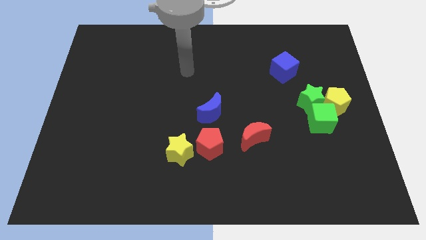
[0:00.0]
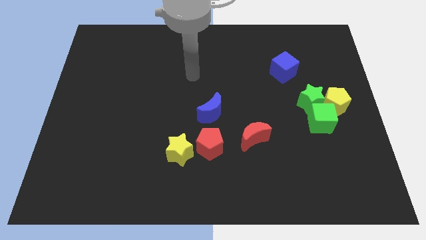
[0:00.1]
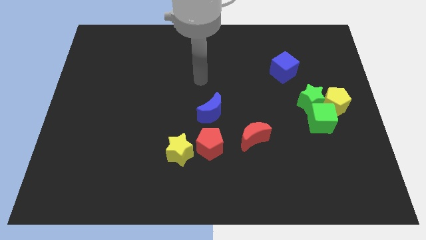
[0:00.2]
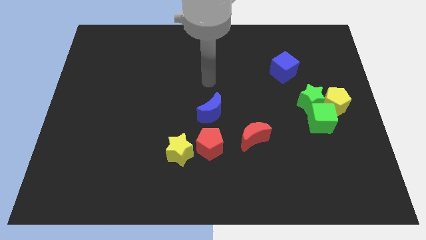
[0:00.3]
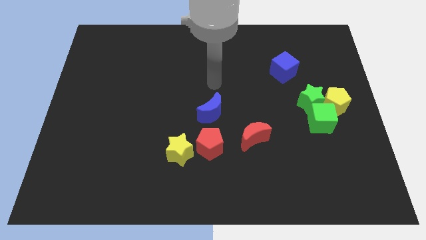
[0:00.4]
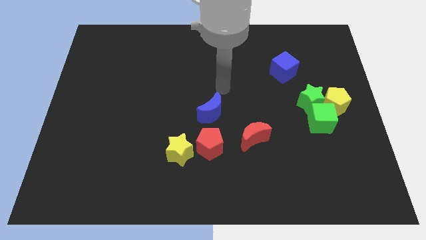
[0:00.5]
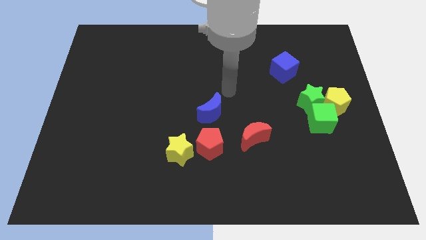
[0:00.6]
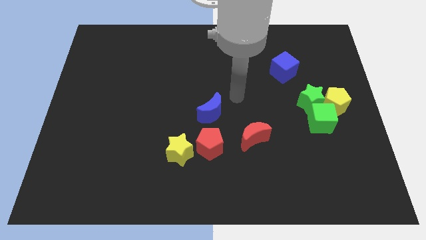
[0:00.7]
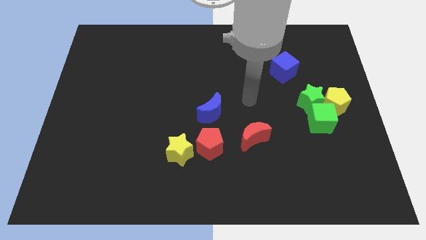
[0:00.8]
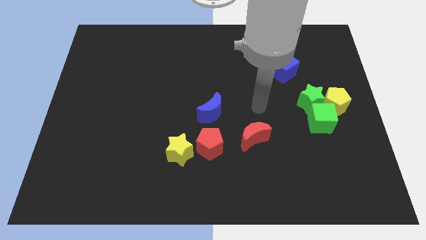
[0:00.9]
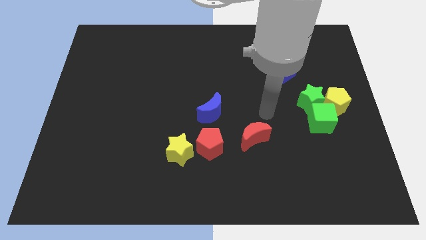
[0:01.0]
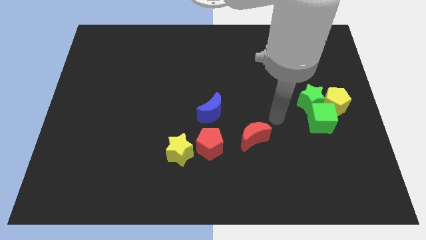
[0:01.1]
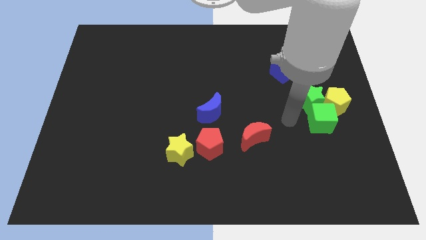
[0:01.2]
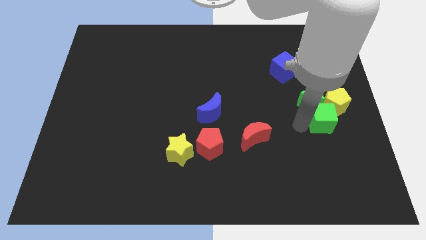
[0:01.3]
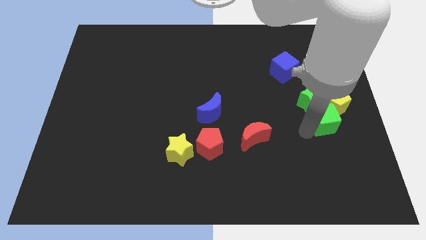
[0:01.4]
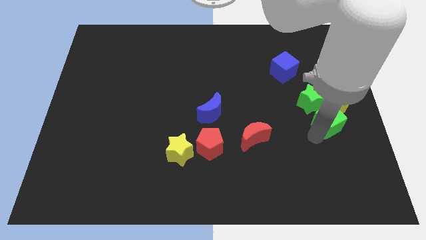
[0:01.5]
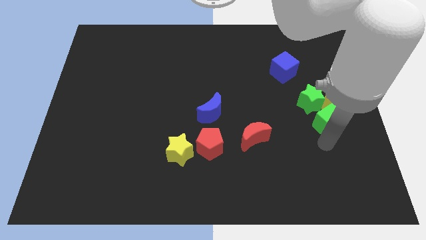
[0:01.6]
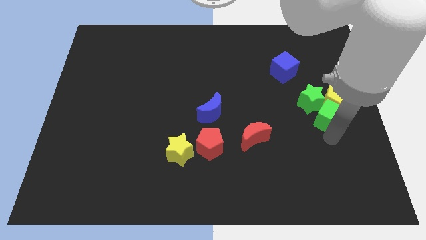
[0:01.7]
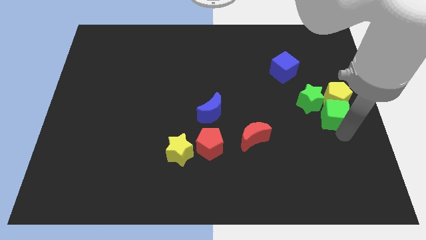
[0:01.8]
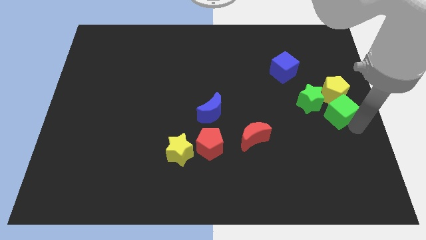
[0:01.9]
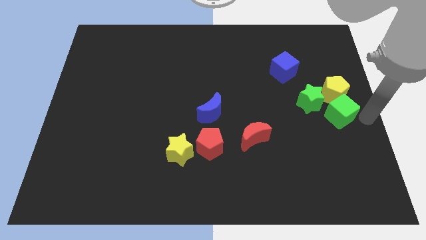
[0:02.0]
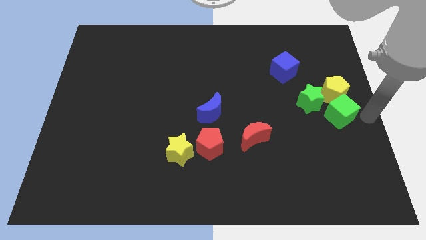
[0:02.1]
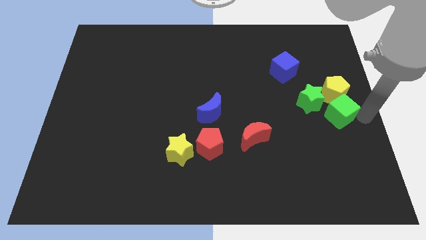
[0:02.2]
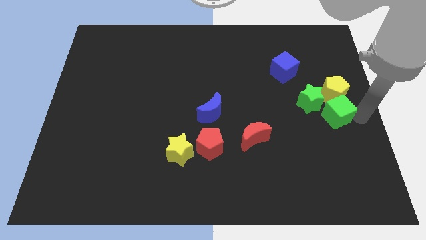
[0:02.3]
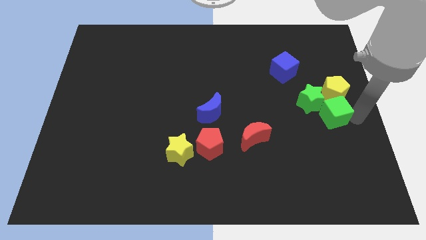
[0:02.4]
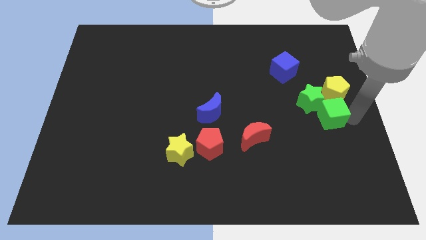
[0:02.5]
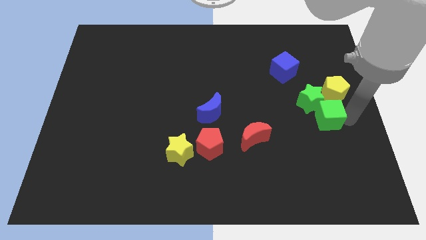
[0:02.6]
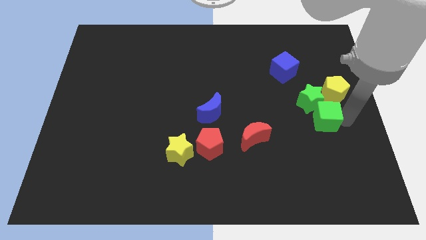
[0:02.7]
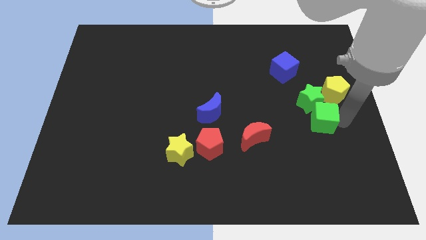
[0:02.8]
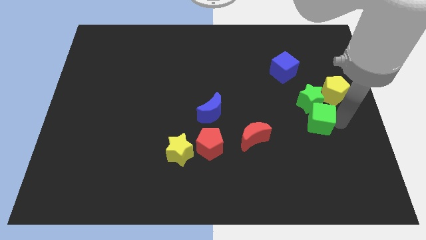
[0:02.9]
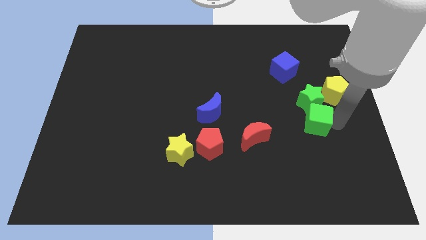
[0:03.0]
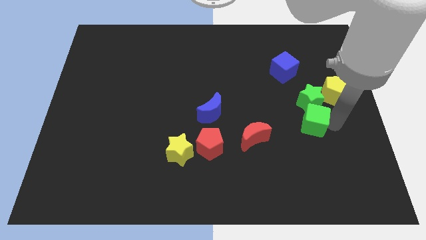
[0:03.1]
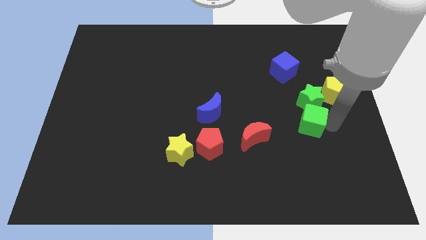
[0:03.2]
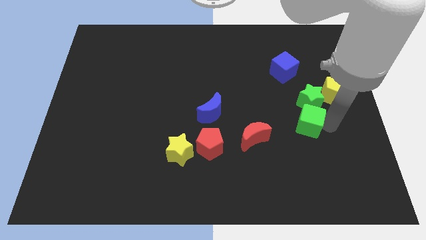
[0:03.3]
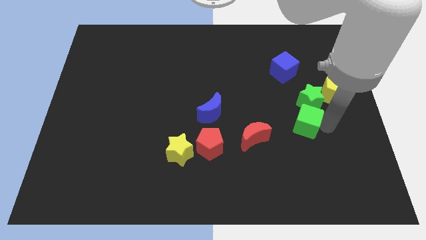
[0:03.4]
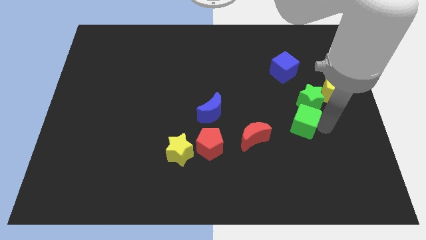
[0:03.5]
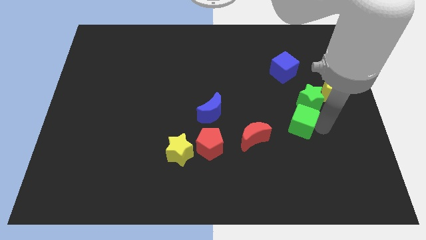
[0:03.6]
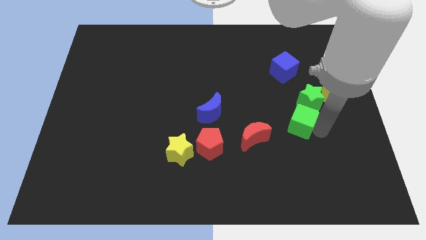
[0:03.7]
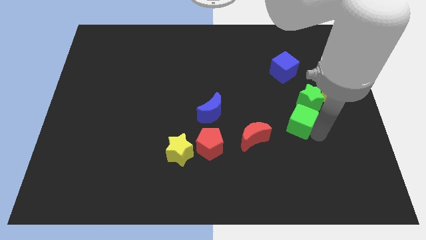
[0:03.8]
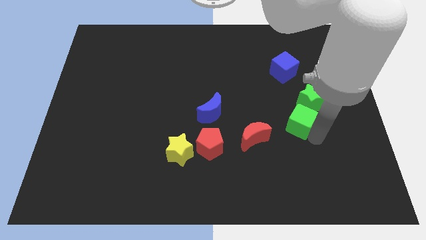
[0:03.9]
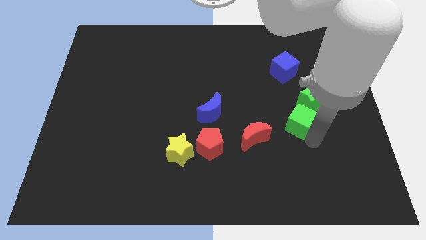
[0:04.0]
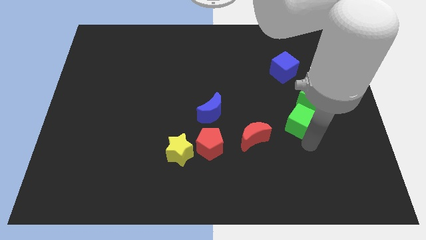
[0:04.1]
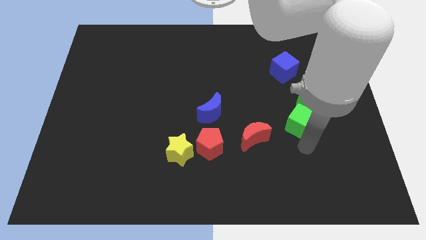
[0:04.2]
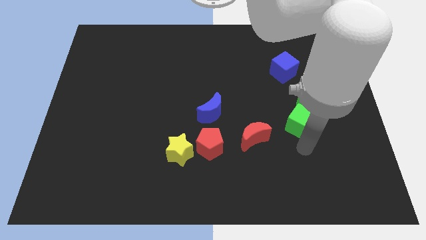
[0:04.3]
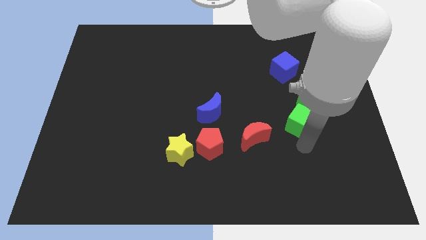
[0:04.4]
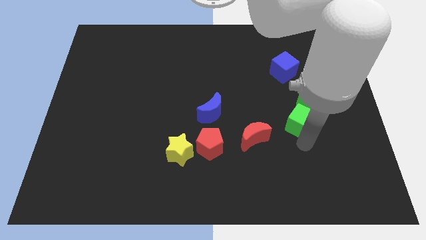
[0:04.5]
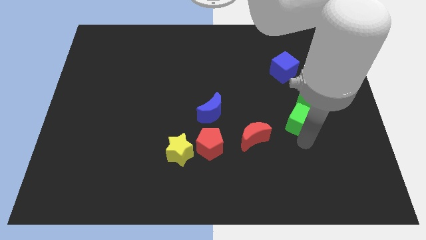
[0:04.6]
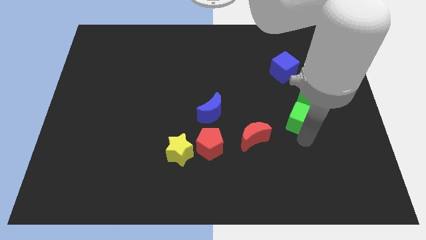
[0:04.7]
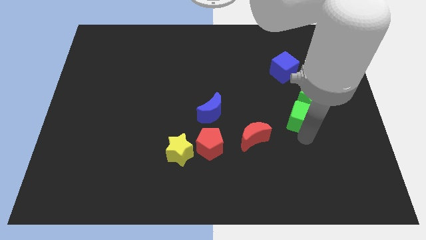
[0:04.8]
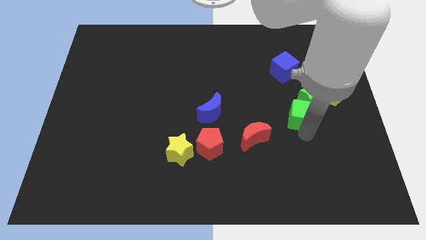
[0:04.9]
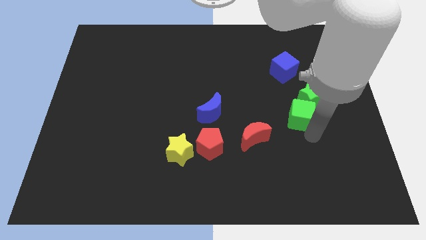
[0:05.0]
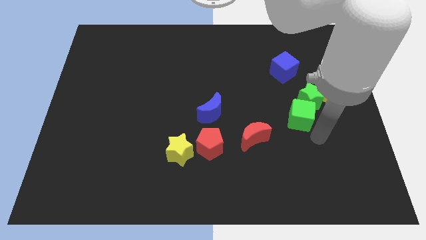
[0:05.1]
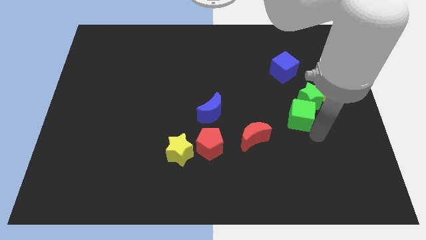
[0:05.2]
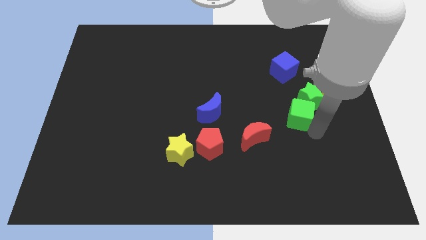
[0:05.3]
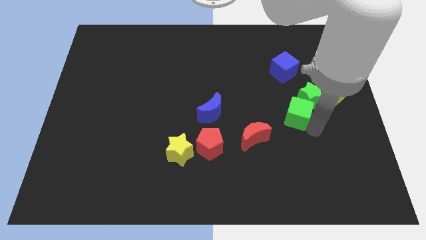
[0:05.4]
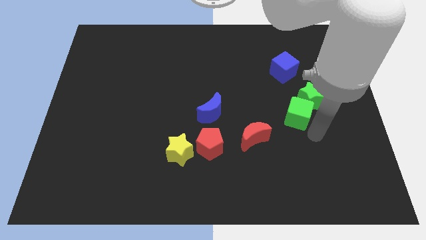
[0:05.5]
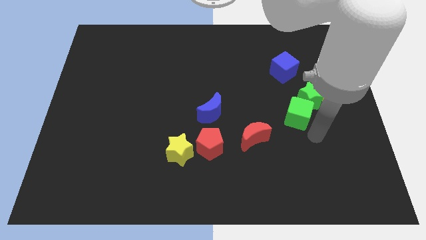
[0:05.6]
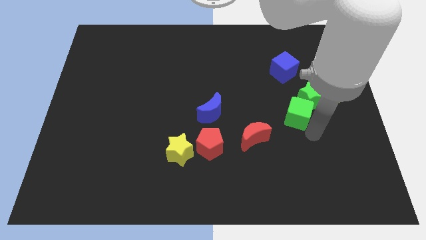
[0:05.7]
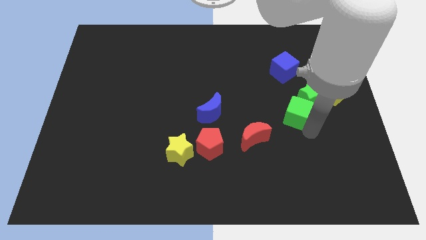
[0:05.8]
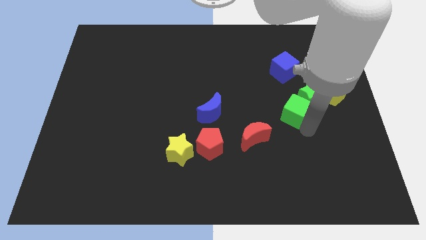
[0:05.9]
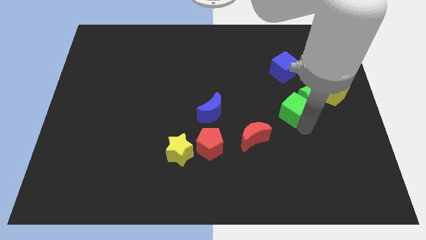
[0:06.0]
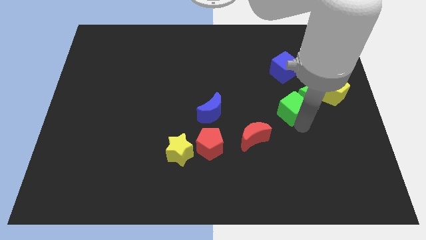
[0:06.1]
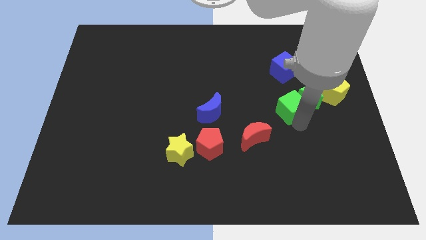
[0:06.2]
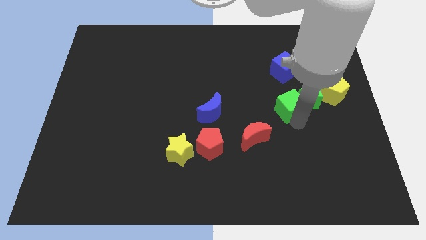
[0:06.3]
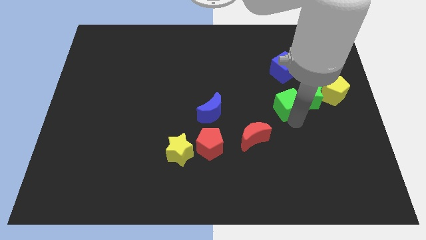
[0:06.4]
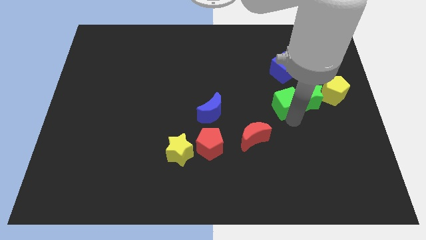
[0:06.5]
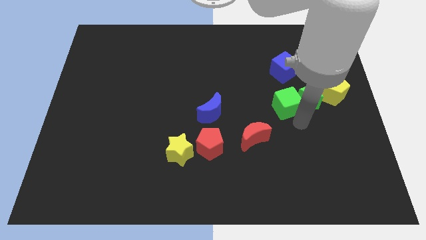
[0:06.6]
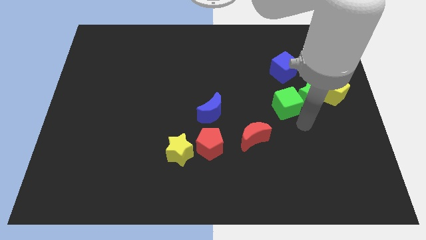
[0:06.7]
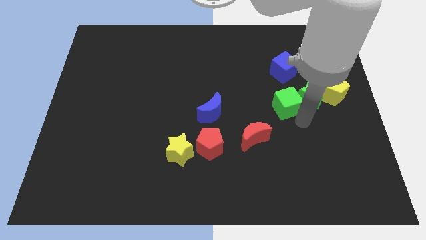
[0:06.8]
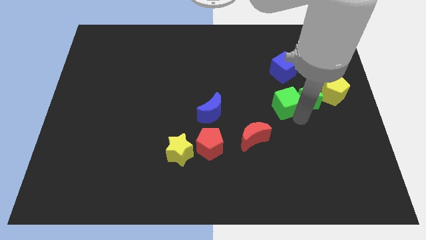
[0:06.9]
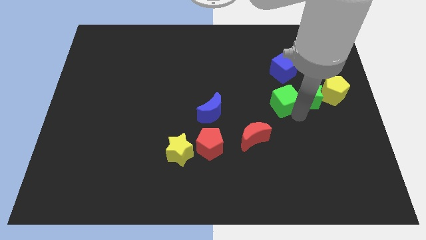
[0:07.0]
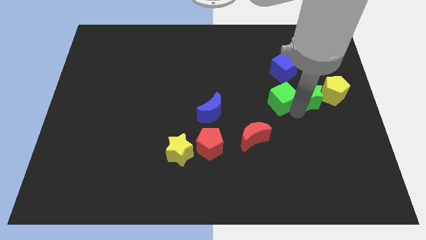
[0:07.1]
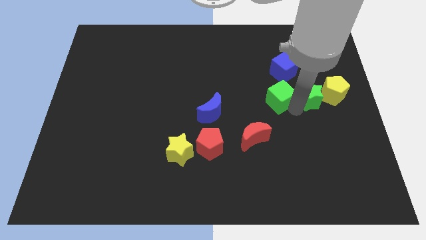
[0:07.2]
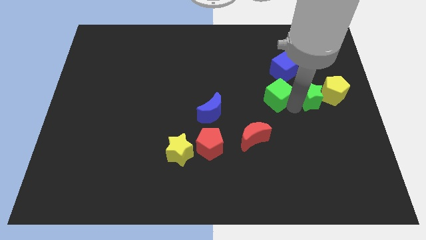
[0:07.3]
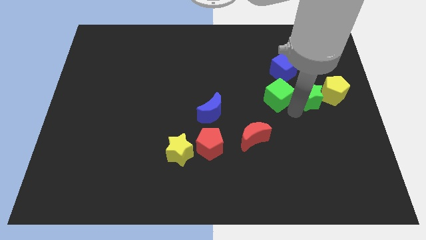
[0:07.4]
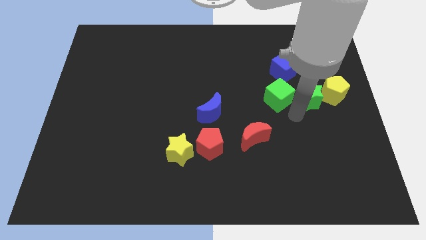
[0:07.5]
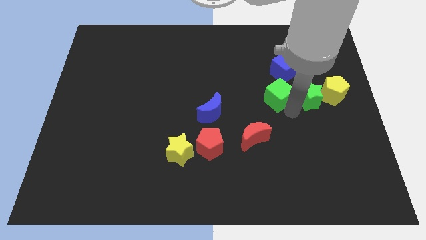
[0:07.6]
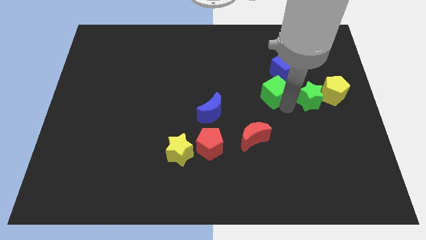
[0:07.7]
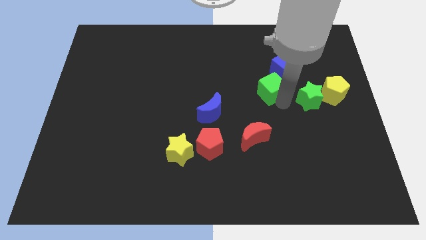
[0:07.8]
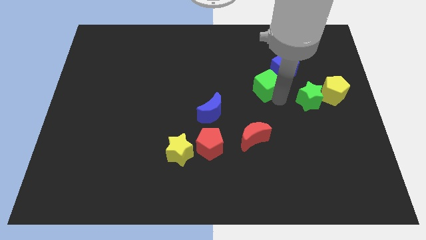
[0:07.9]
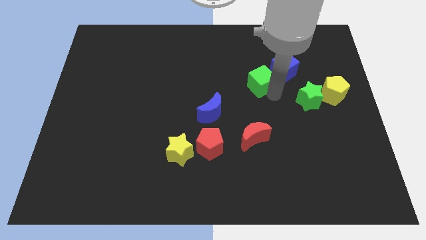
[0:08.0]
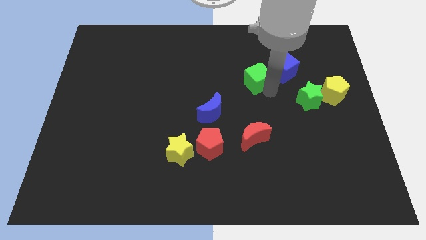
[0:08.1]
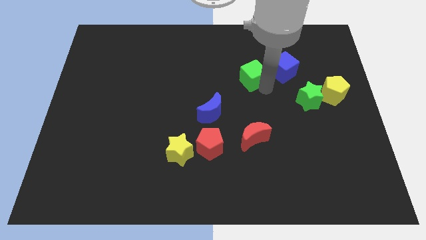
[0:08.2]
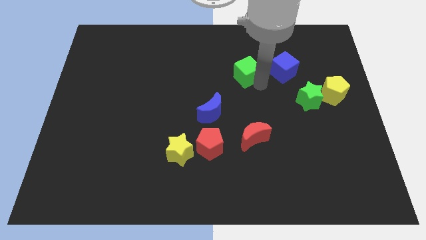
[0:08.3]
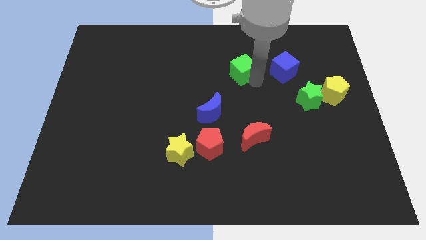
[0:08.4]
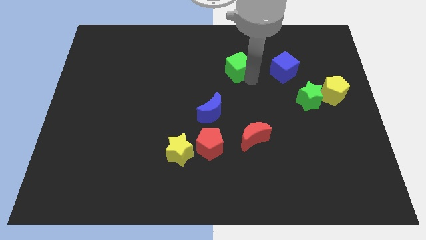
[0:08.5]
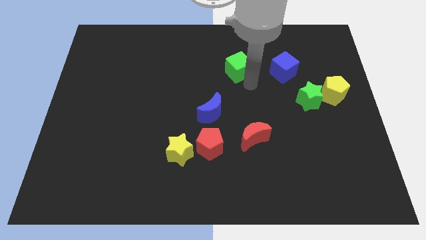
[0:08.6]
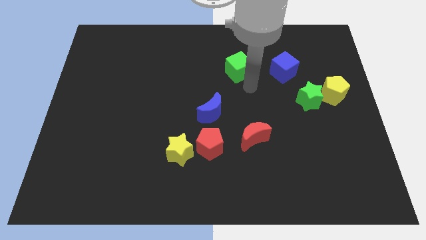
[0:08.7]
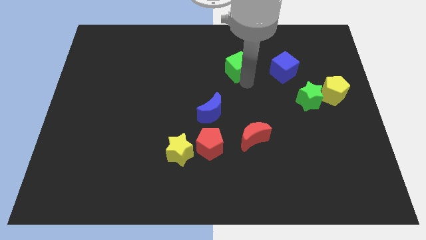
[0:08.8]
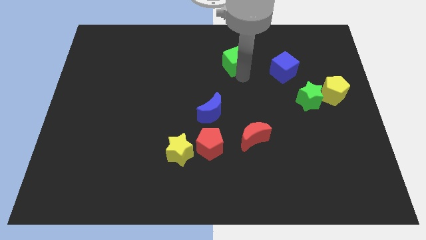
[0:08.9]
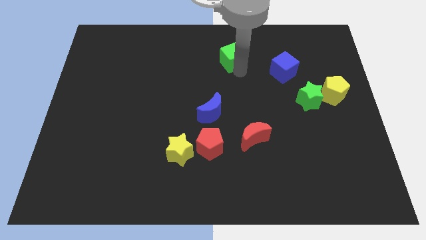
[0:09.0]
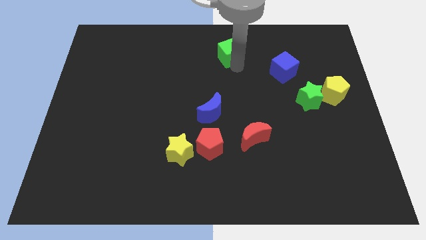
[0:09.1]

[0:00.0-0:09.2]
slide the green cube to the top side
